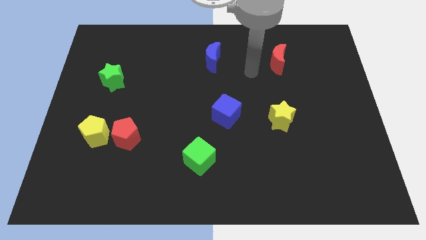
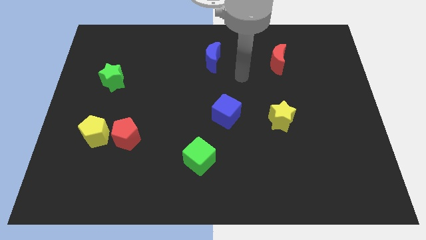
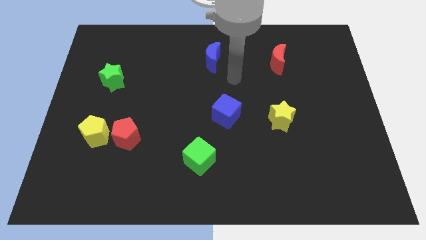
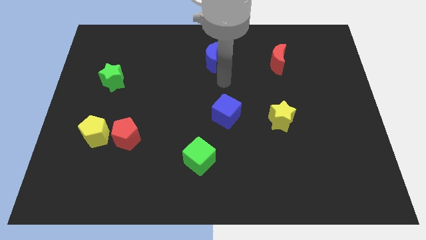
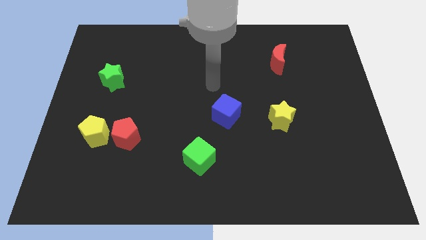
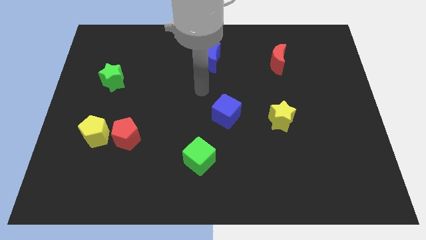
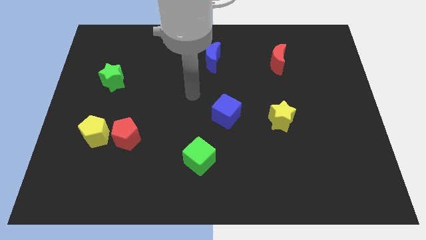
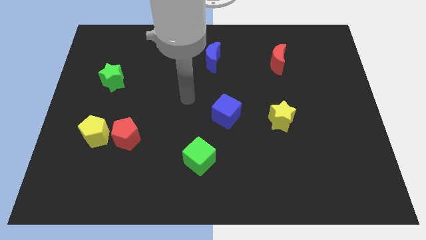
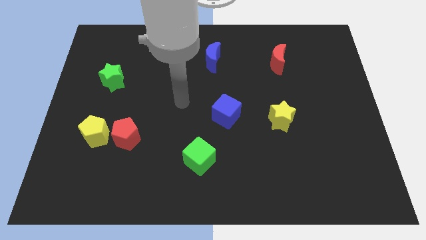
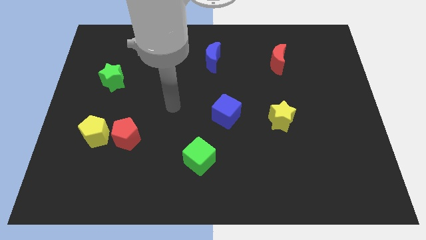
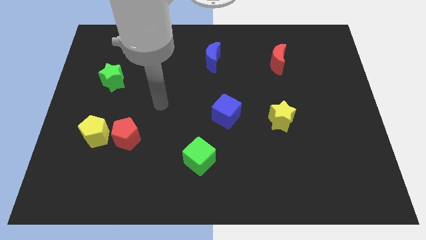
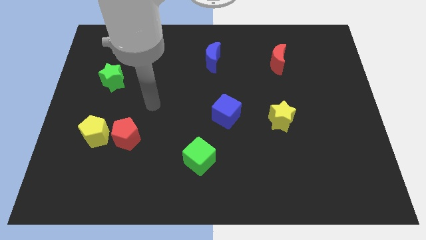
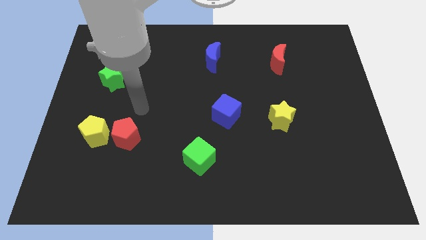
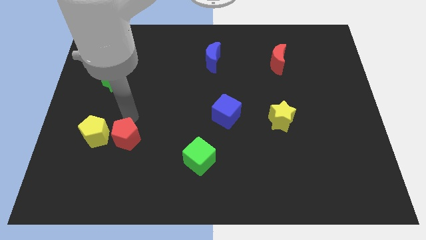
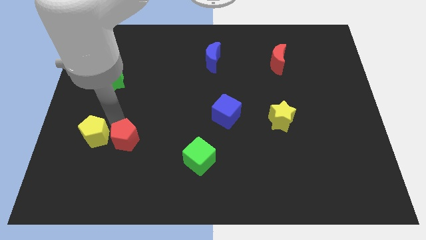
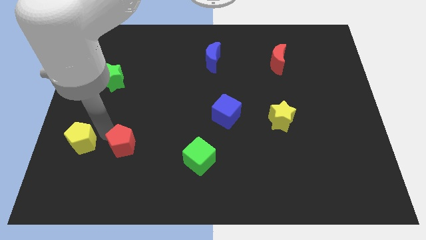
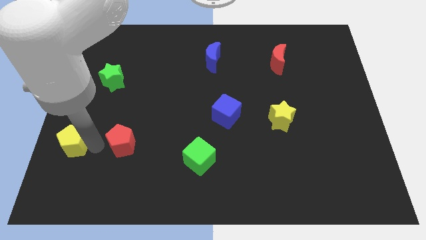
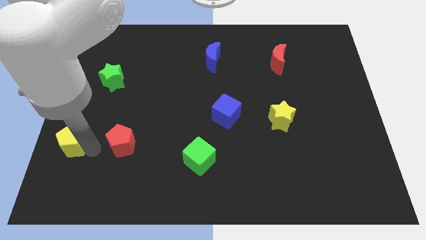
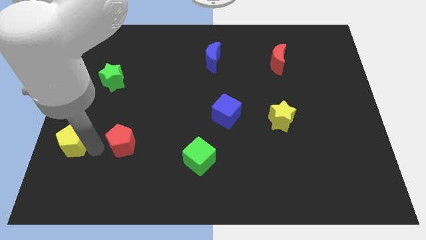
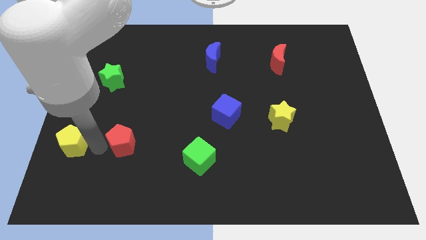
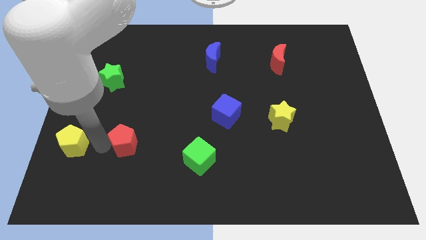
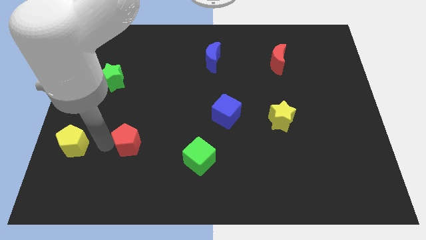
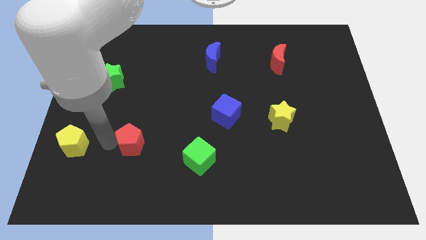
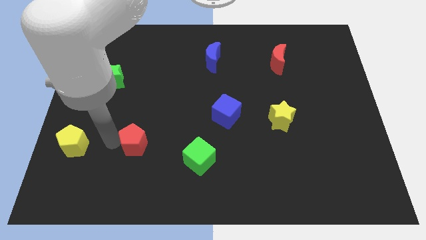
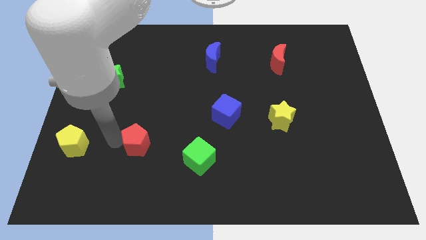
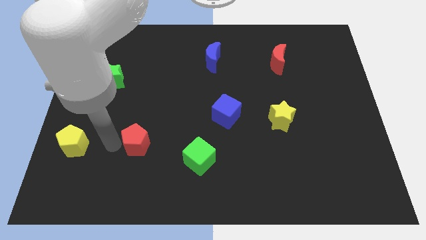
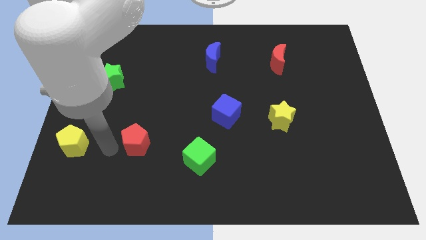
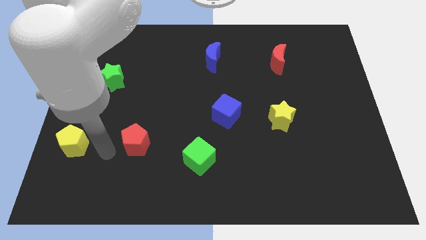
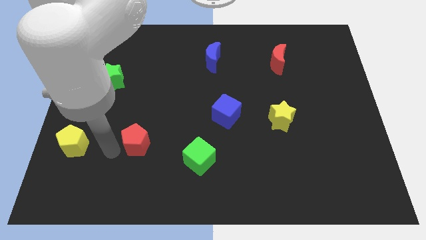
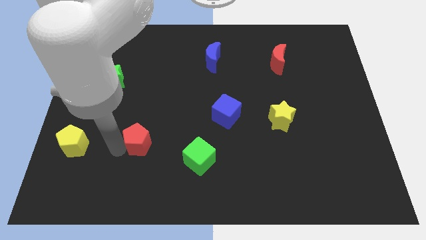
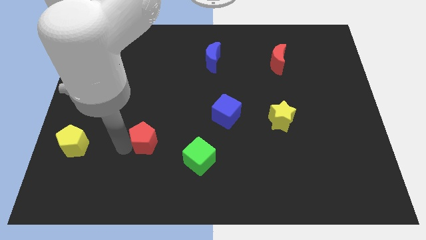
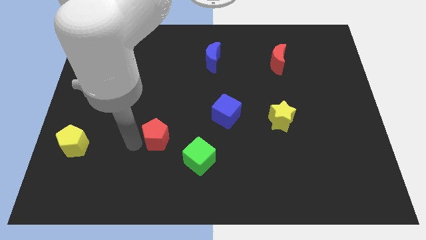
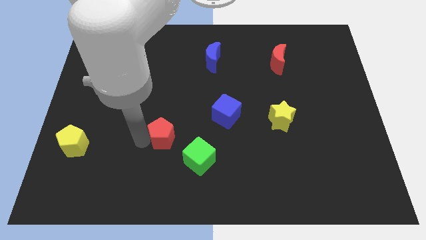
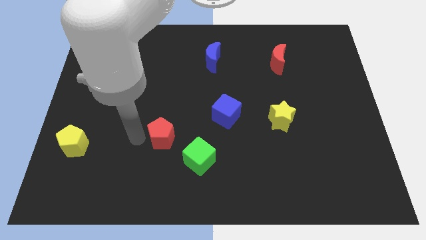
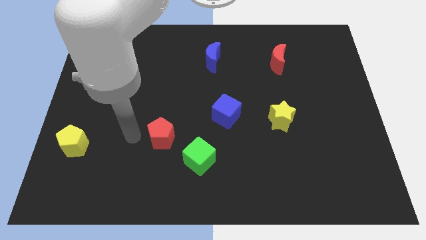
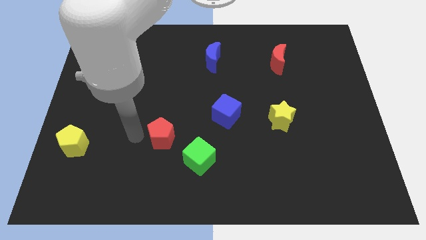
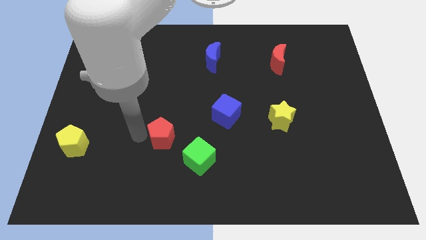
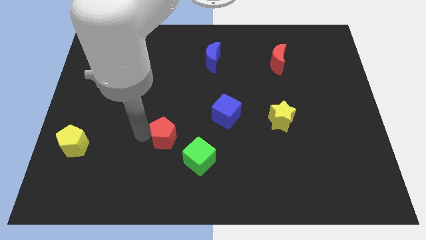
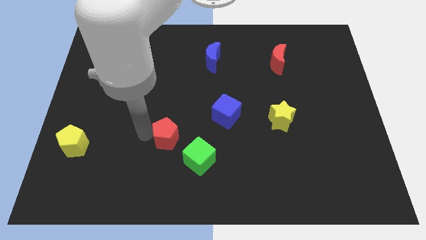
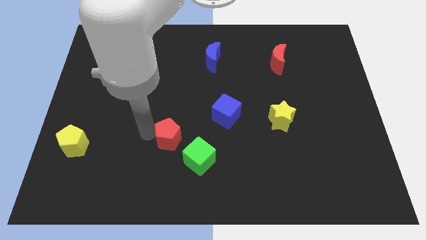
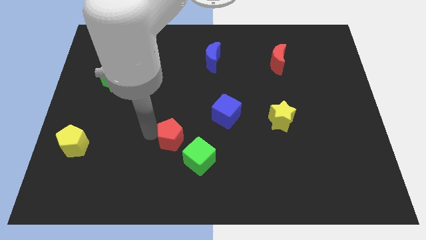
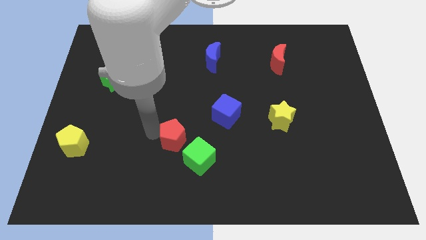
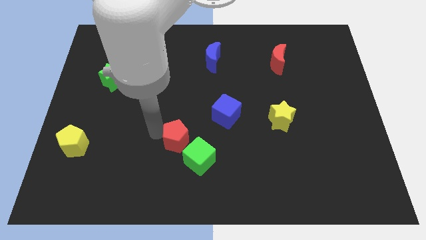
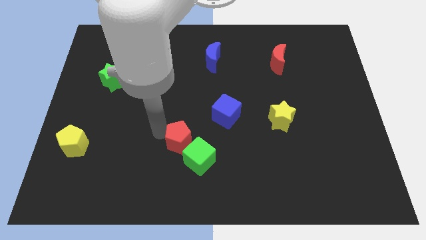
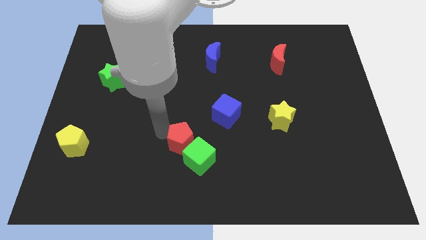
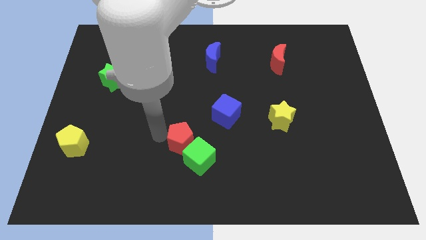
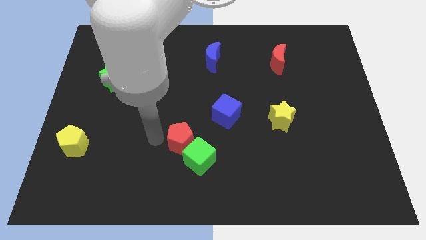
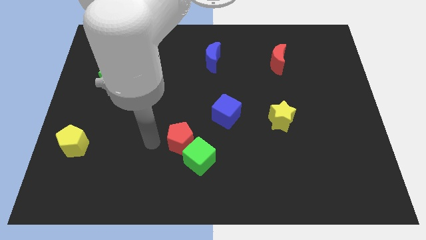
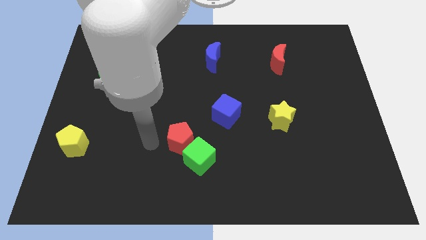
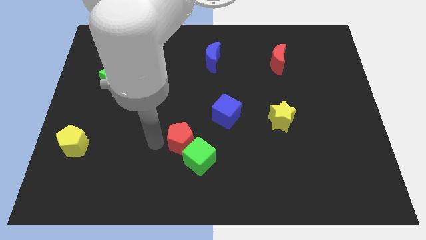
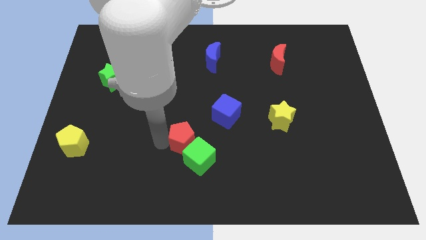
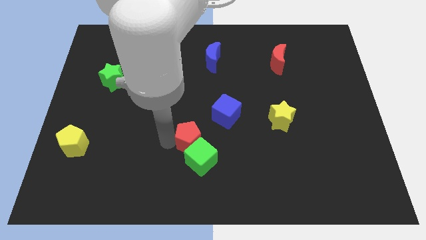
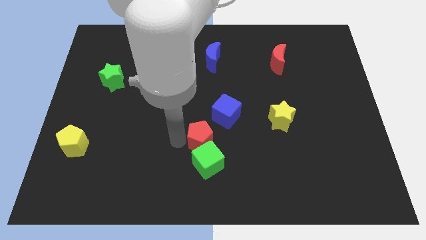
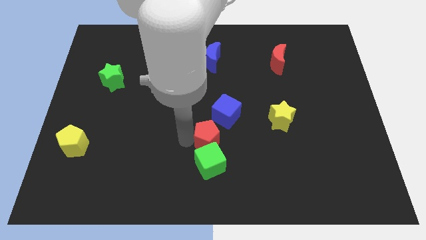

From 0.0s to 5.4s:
put the red pentagon to the top right side of the green cube

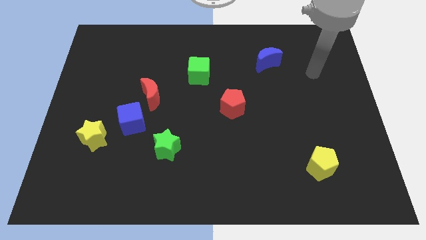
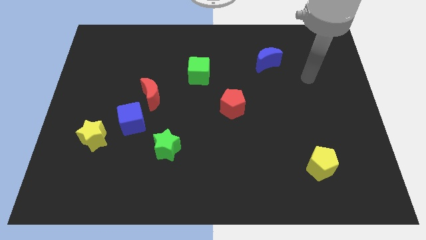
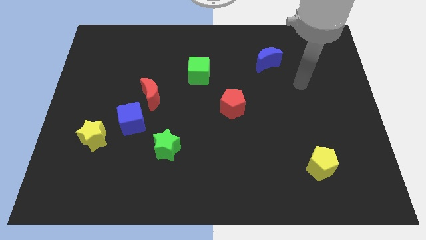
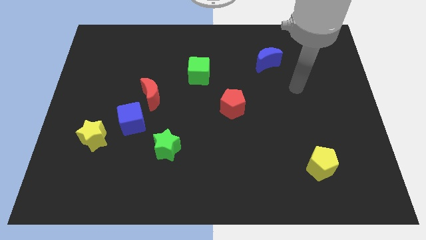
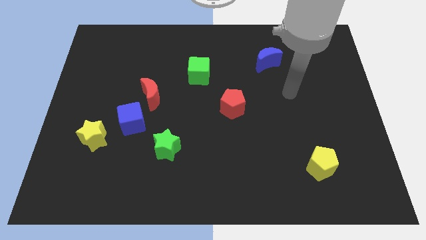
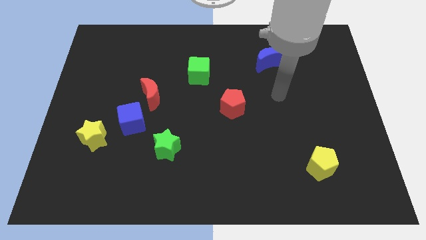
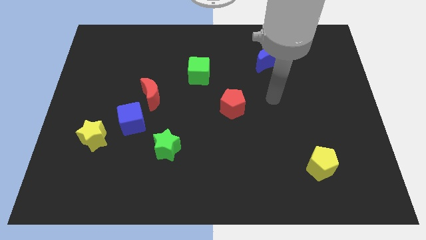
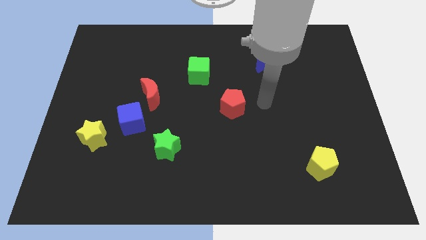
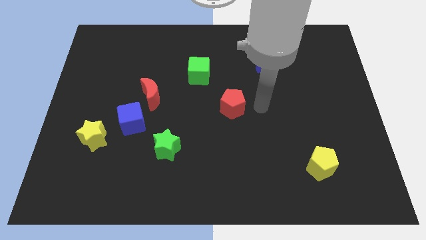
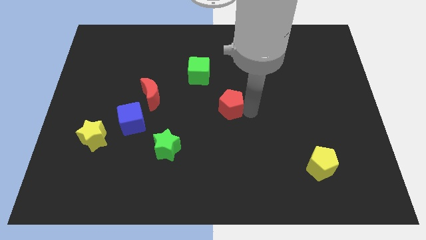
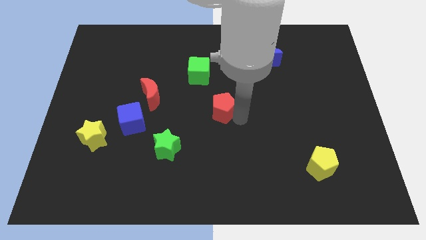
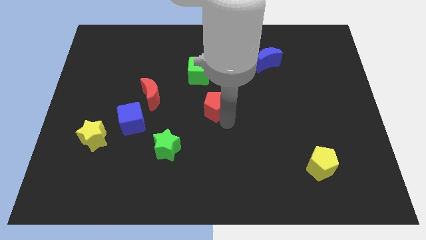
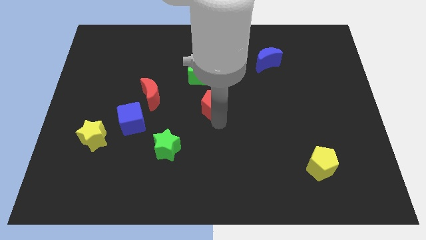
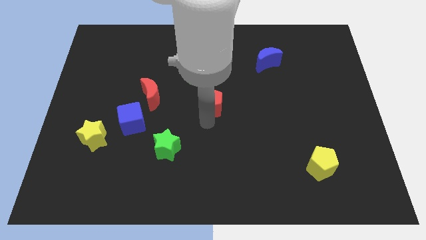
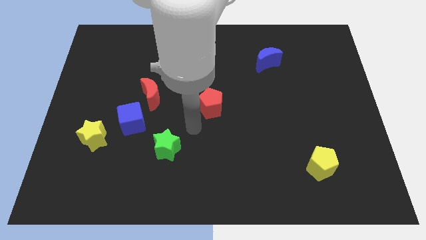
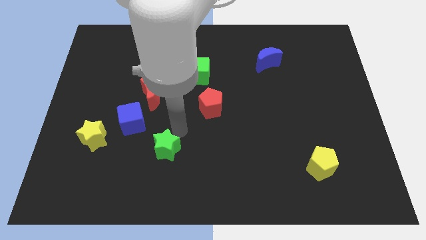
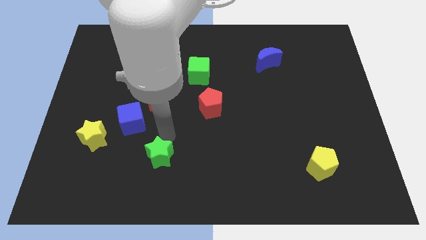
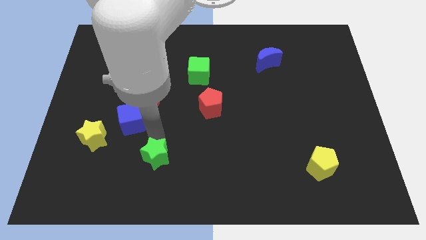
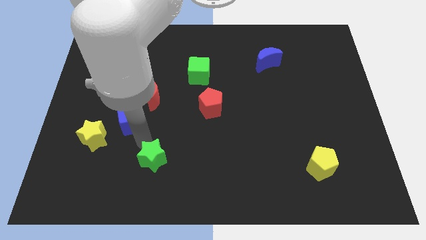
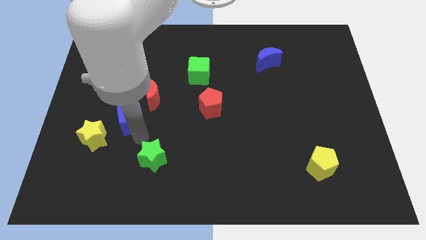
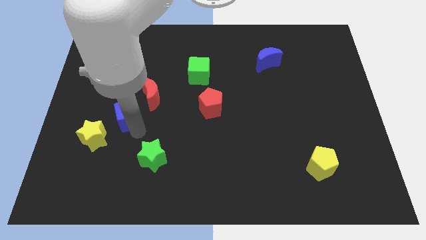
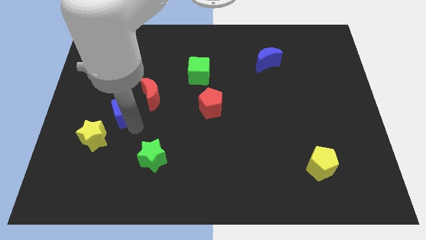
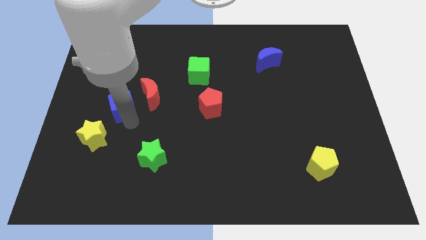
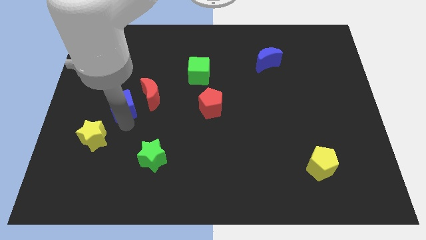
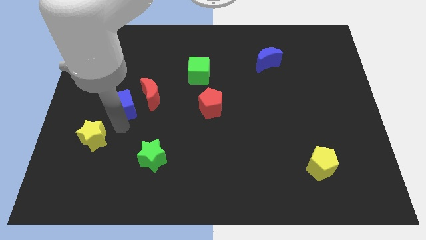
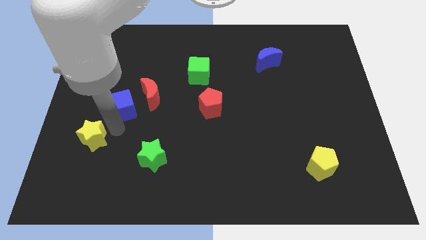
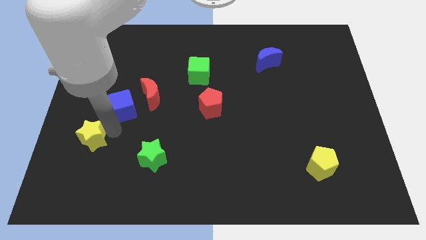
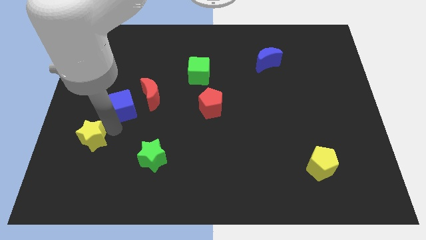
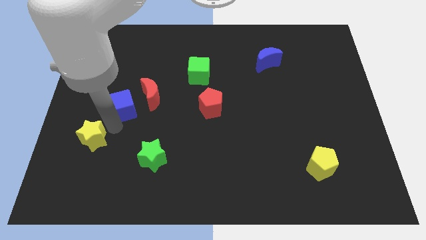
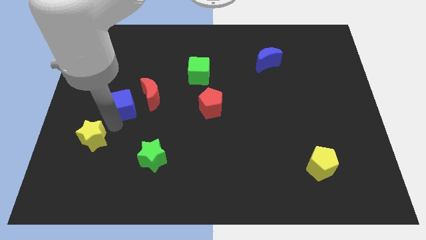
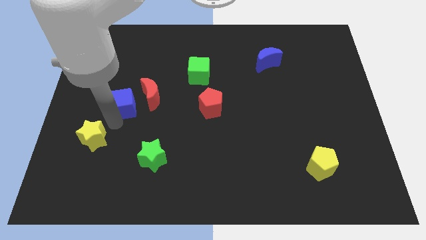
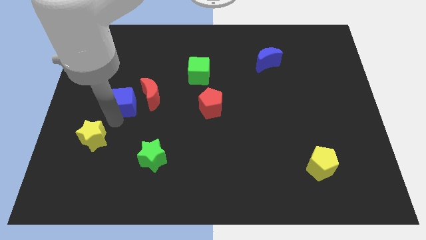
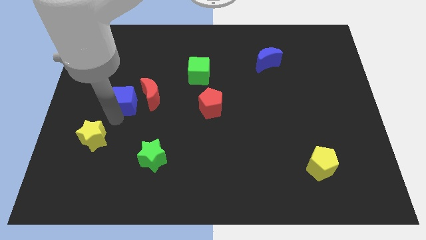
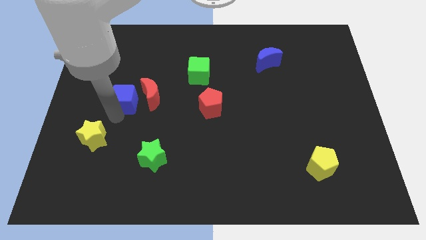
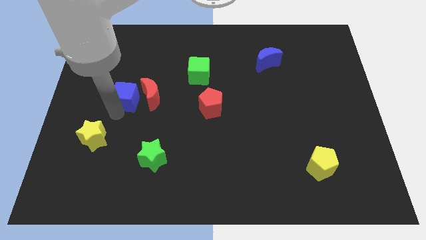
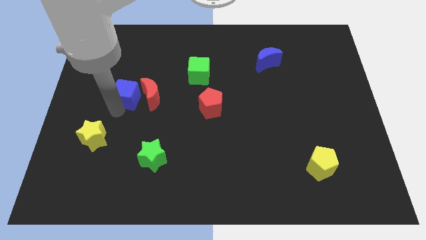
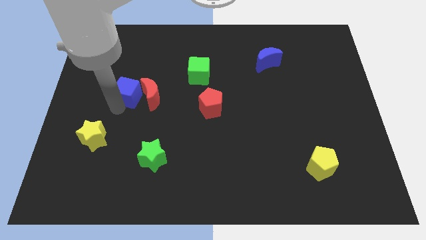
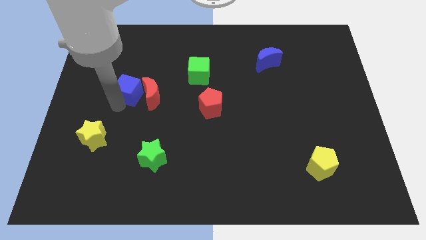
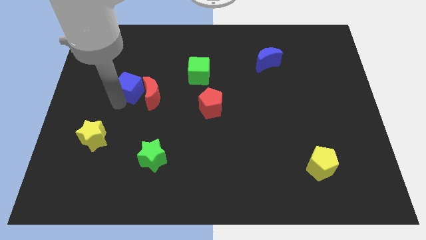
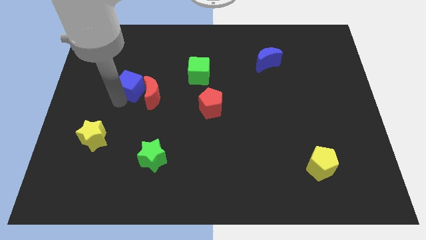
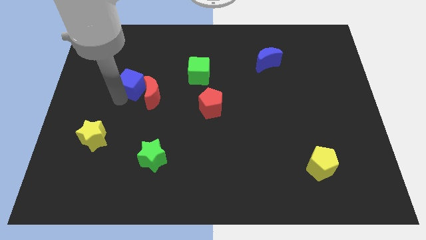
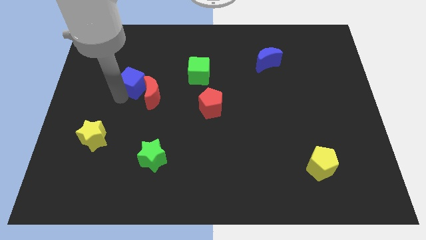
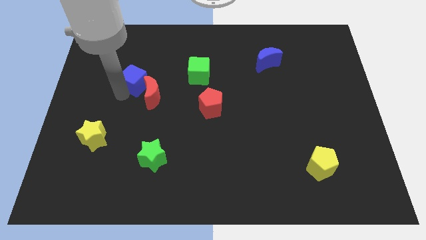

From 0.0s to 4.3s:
put the blue cube to the top side of the red moon
